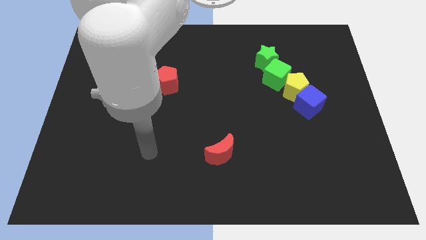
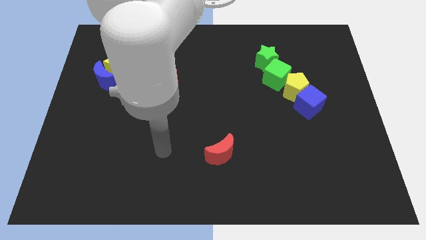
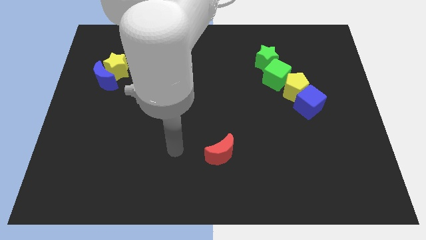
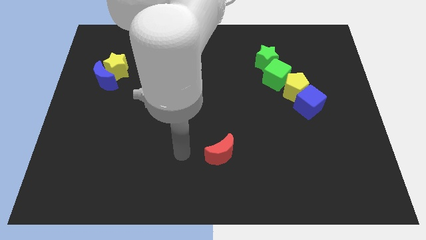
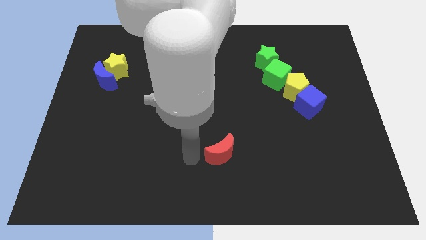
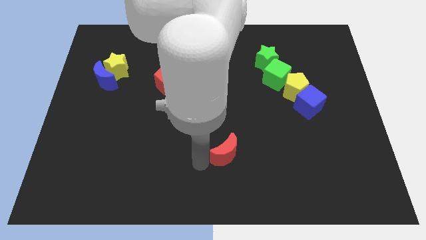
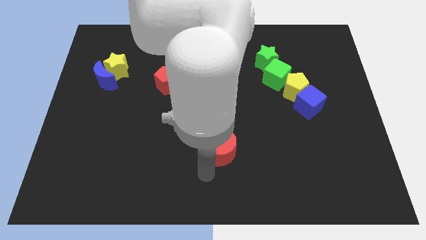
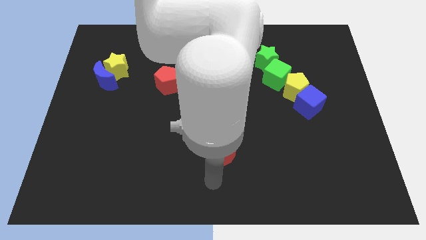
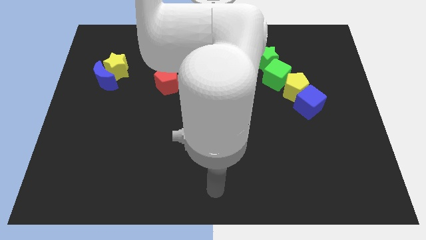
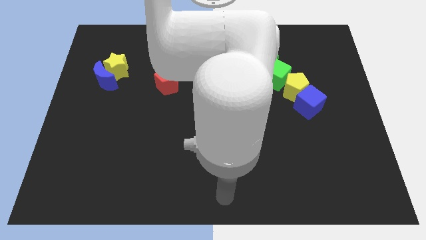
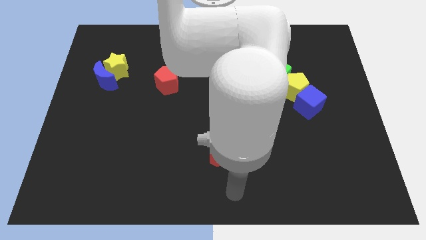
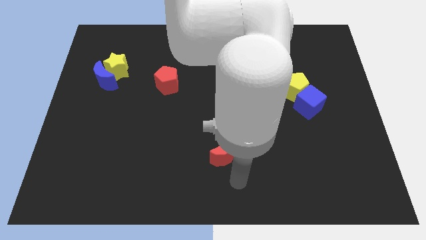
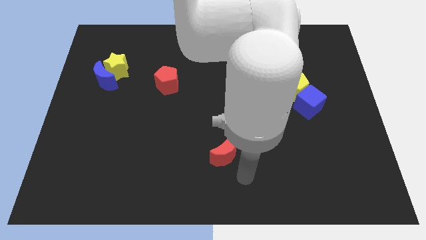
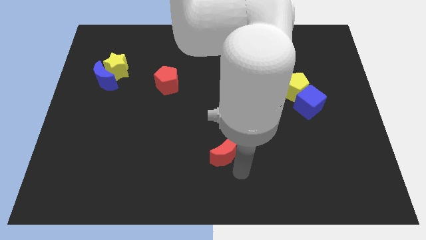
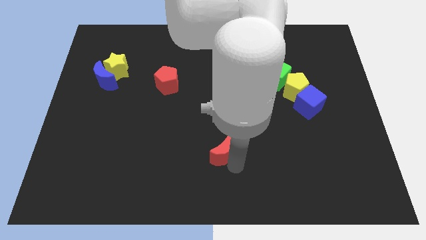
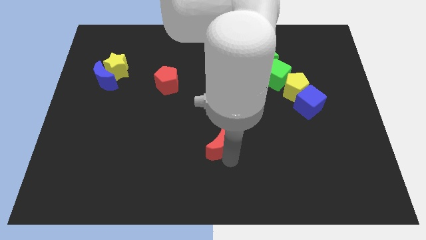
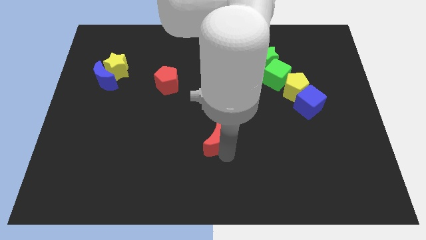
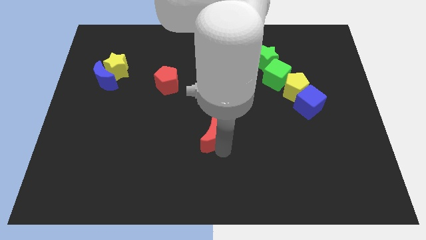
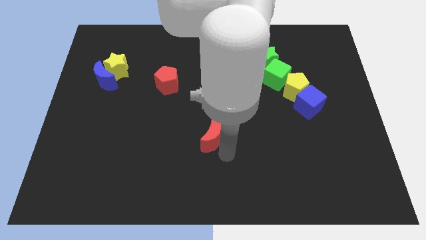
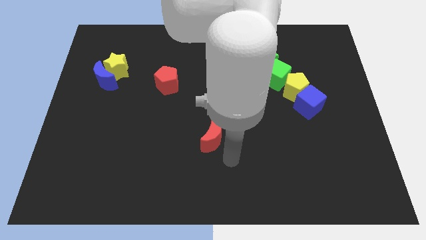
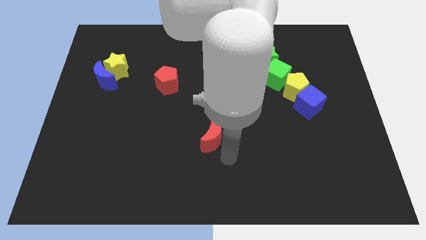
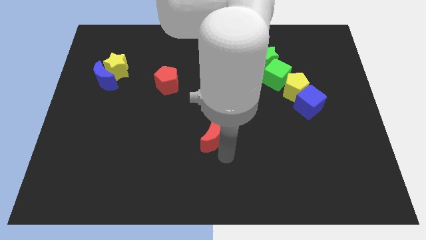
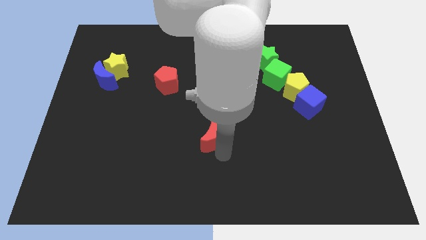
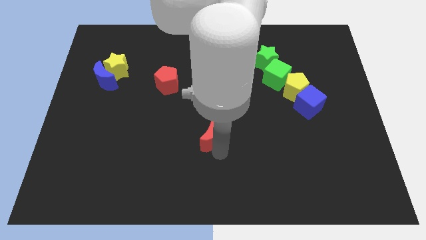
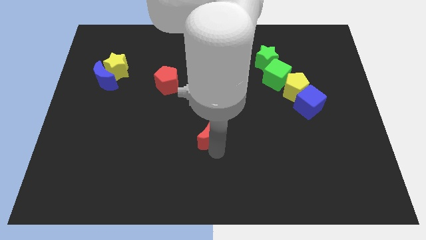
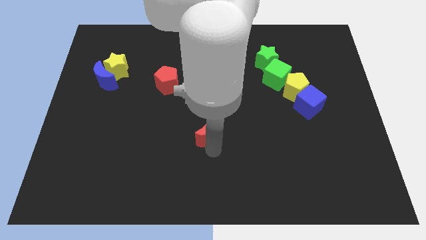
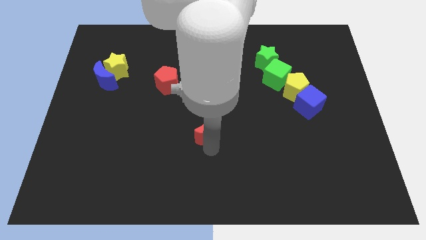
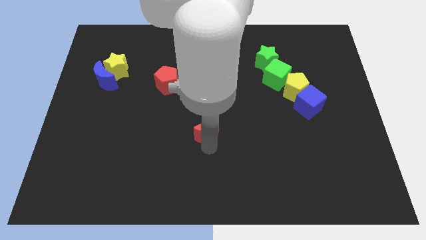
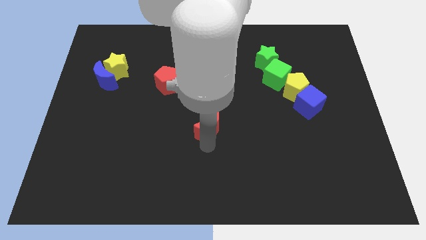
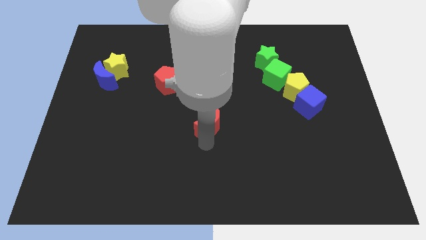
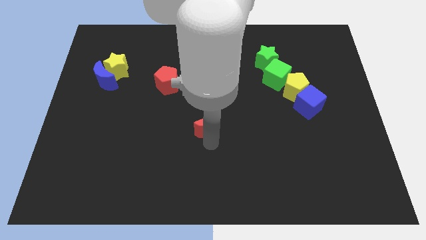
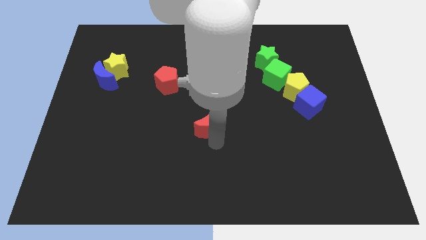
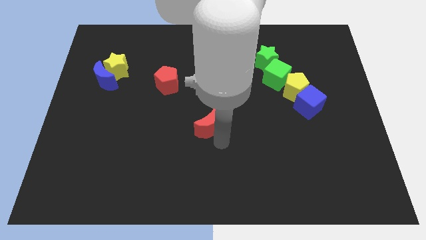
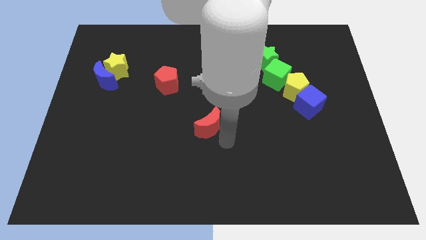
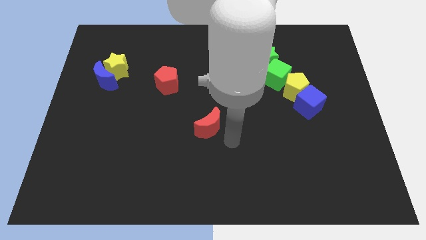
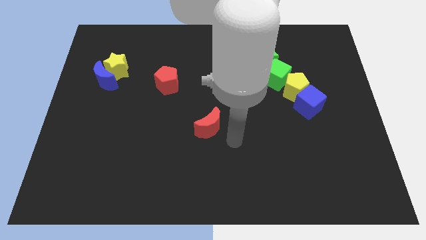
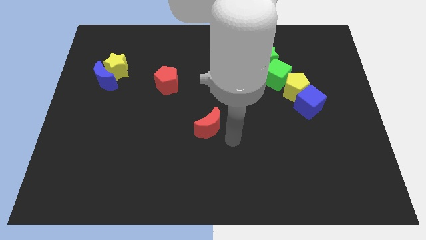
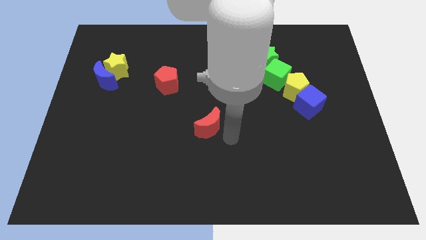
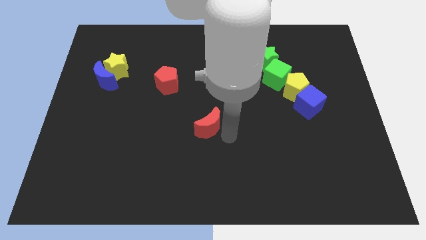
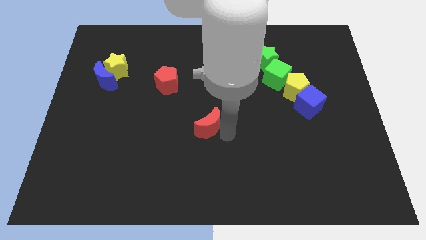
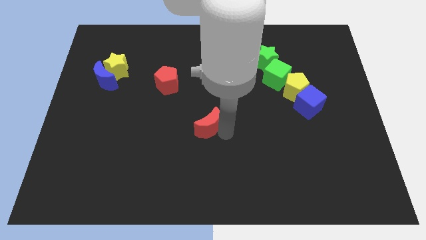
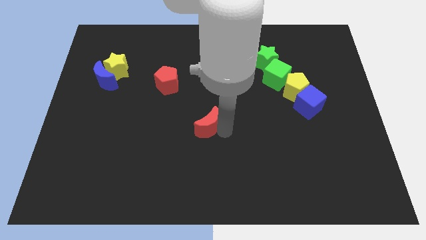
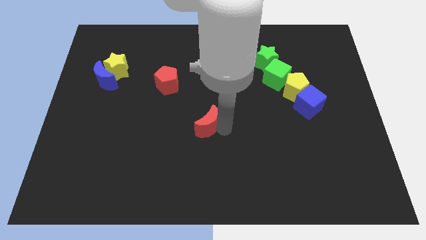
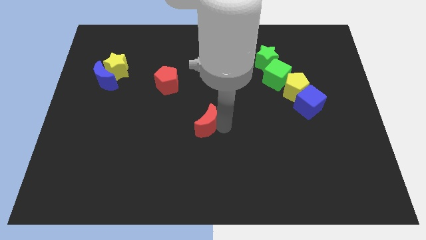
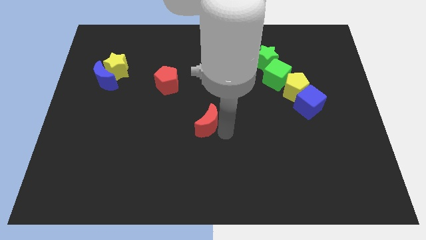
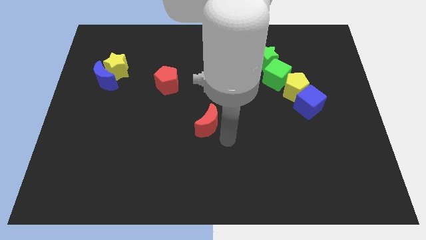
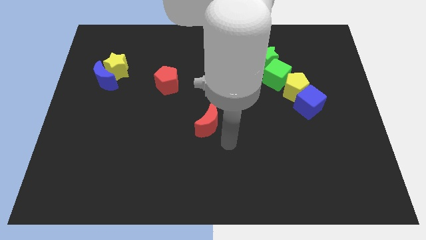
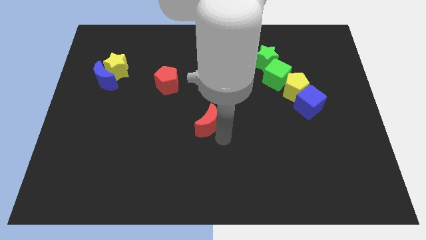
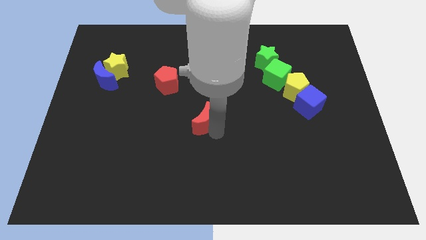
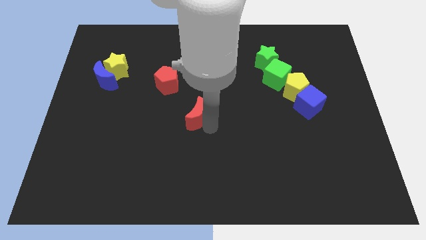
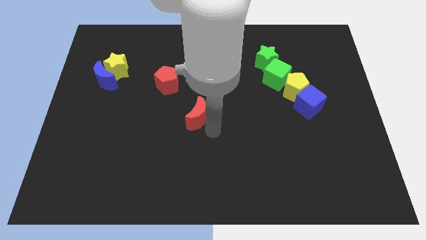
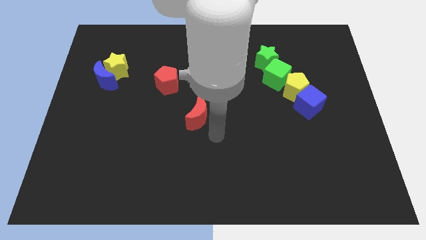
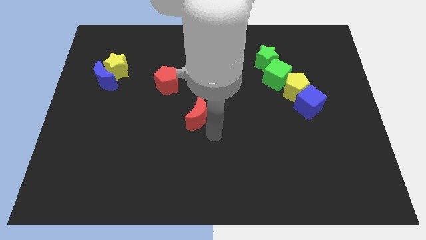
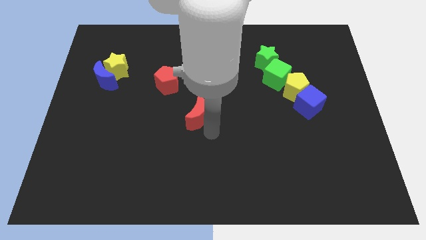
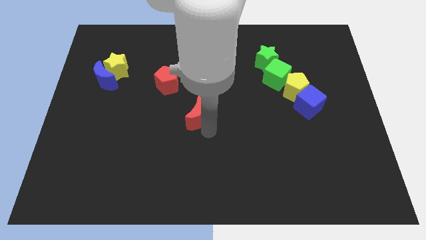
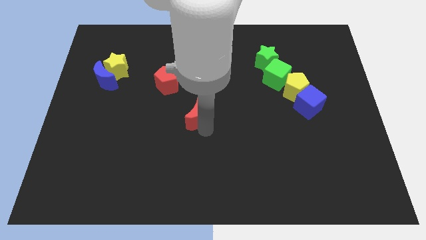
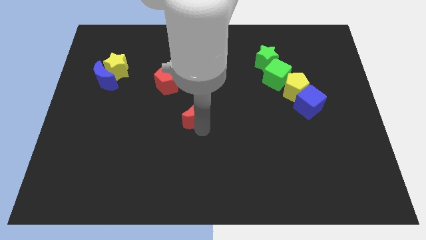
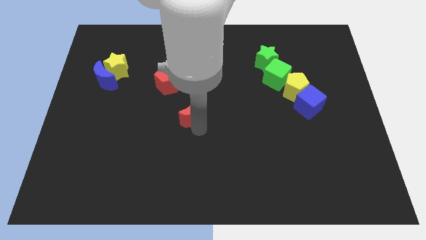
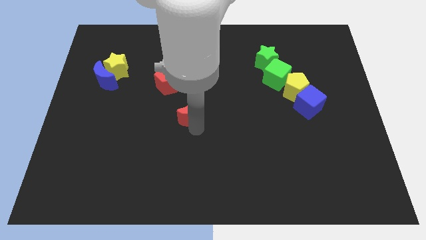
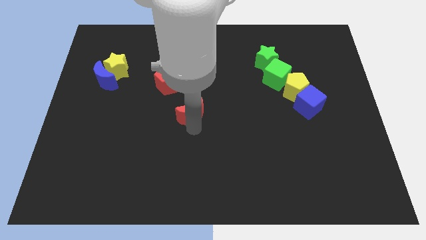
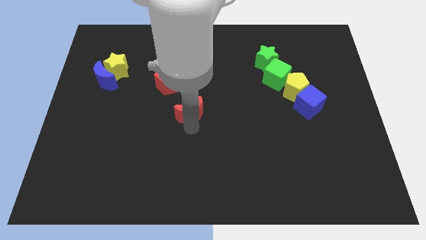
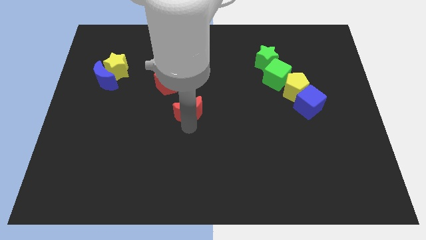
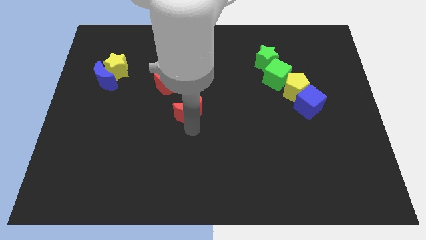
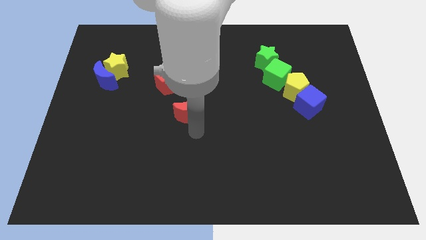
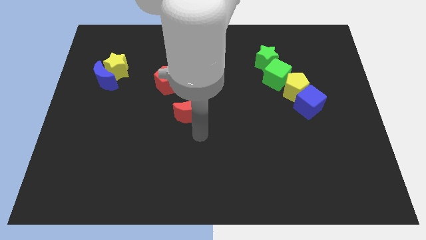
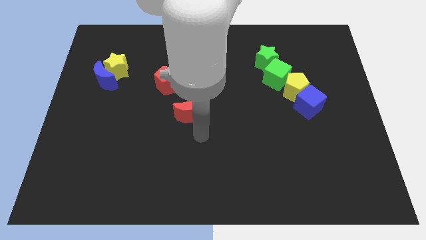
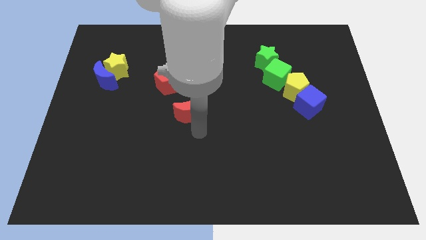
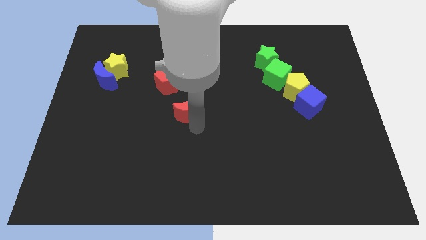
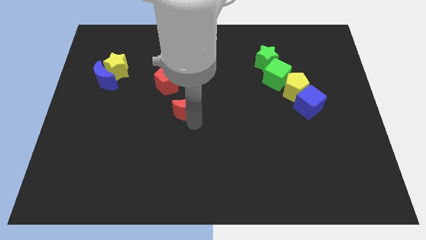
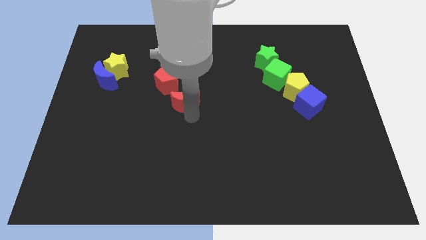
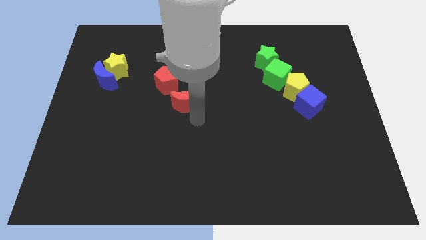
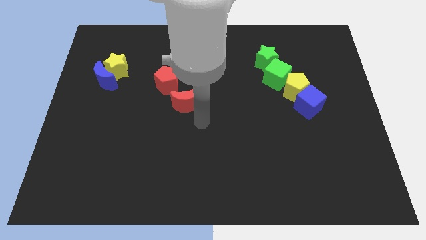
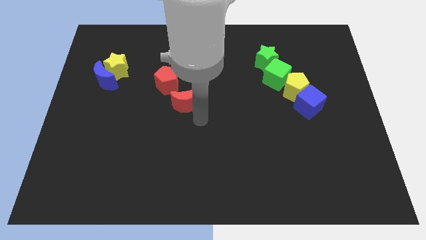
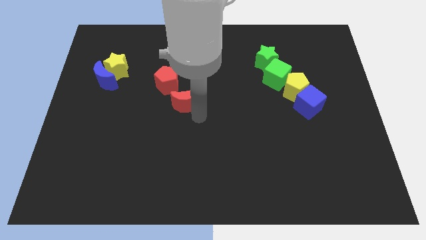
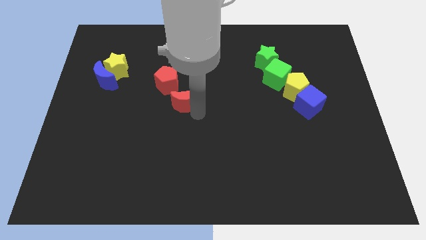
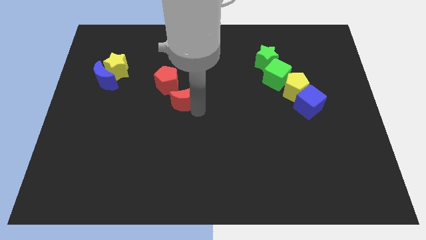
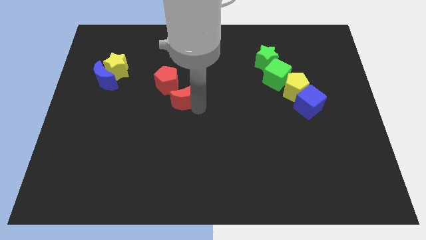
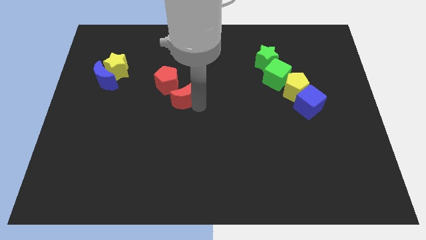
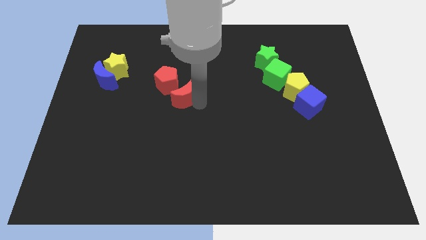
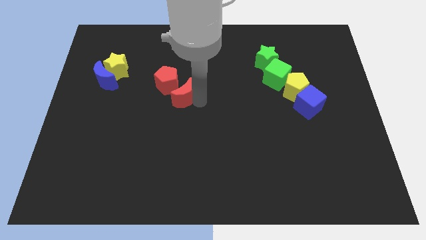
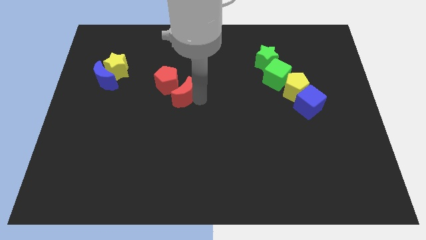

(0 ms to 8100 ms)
push the red moon next to the red pentagon
